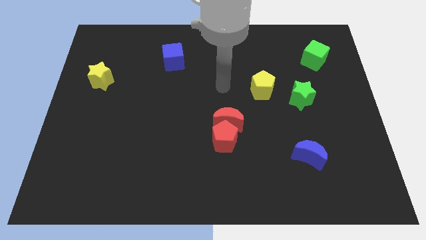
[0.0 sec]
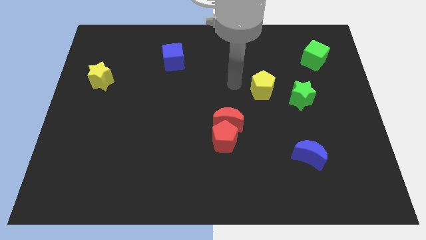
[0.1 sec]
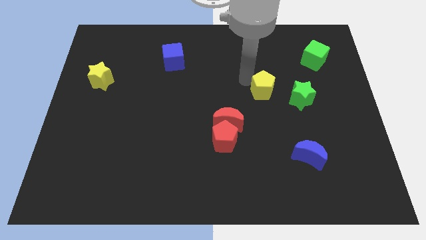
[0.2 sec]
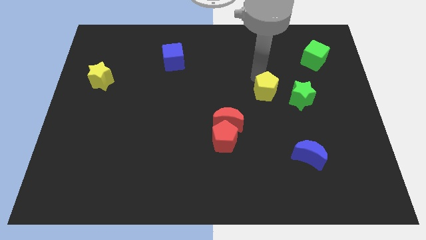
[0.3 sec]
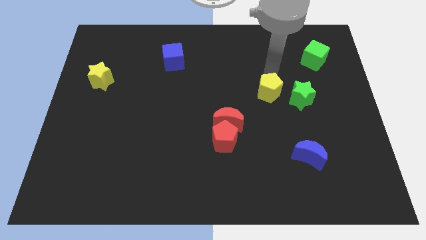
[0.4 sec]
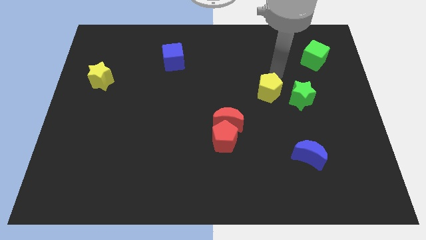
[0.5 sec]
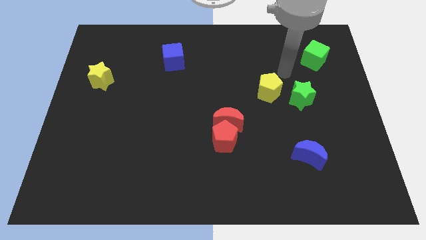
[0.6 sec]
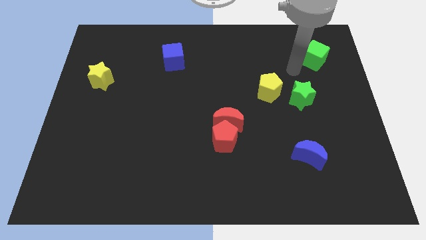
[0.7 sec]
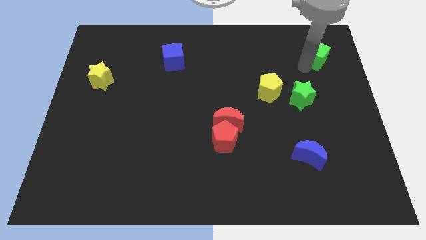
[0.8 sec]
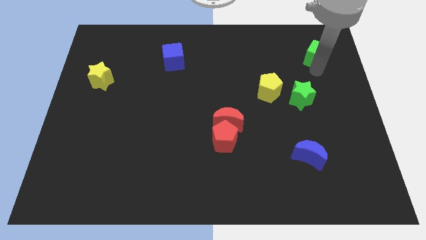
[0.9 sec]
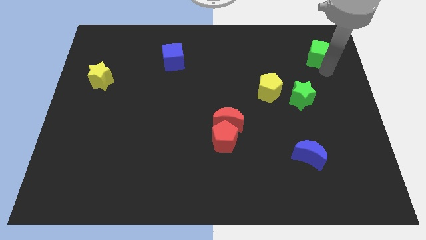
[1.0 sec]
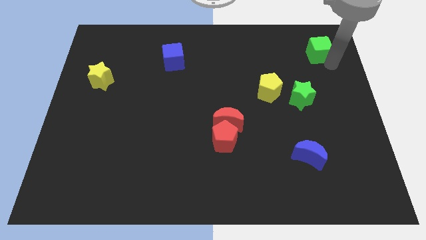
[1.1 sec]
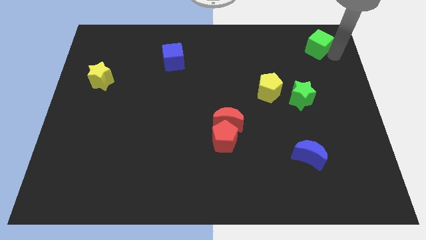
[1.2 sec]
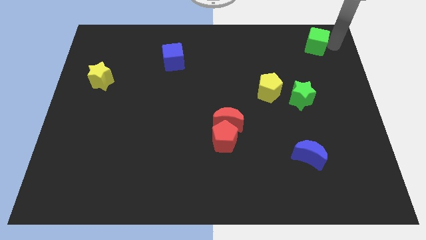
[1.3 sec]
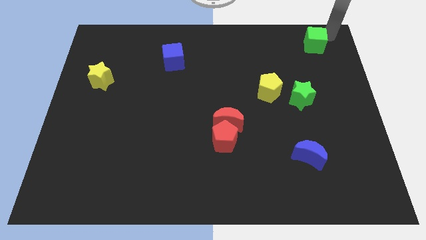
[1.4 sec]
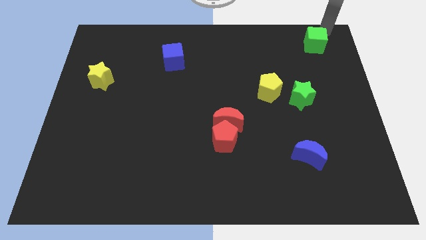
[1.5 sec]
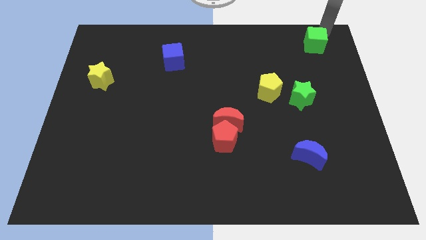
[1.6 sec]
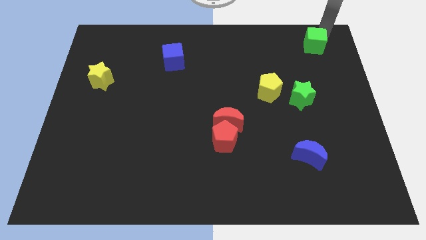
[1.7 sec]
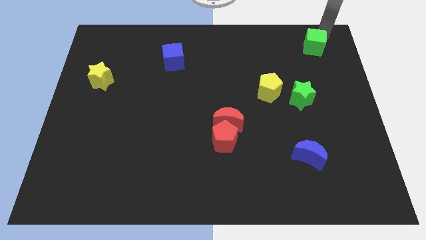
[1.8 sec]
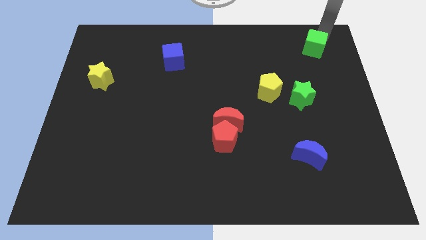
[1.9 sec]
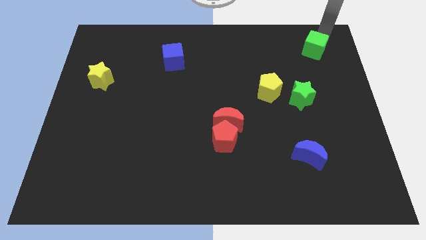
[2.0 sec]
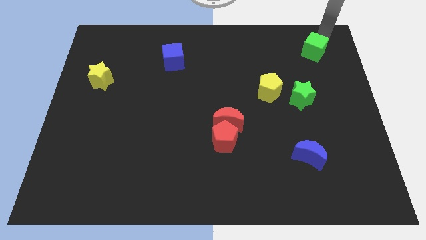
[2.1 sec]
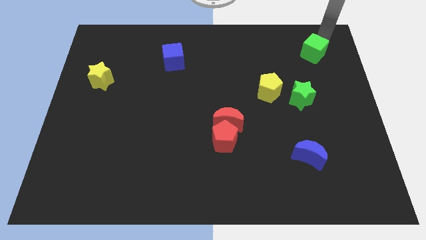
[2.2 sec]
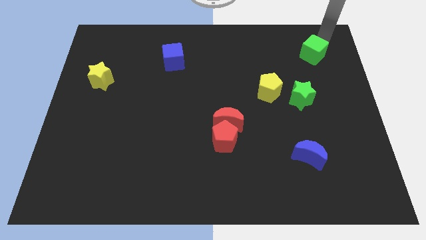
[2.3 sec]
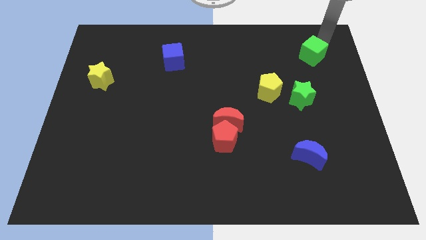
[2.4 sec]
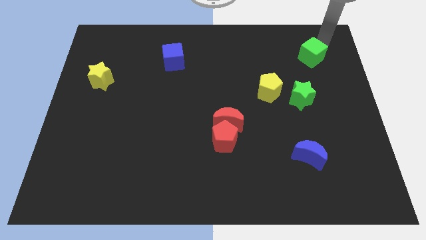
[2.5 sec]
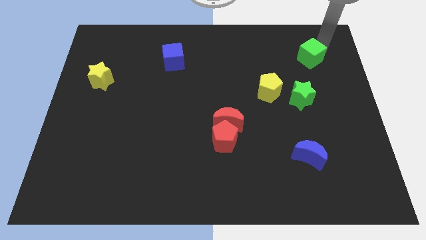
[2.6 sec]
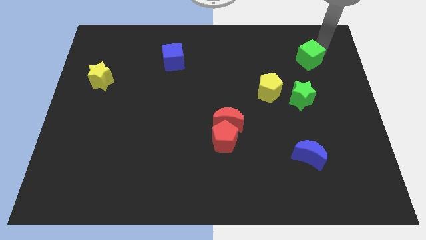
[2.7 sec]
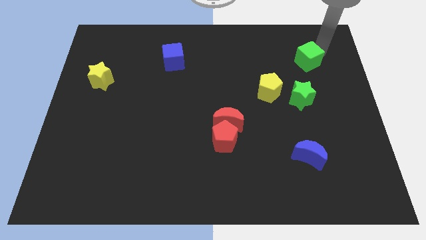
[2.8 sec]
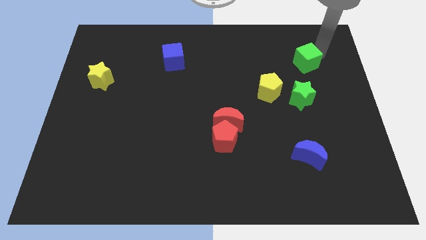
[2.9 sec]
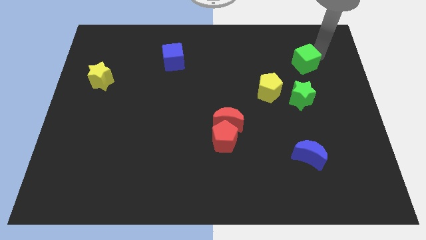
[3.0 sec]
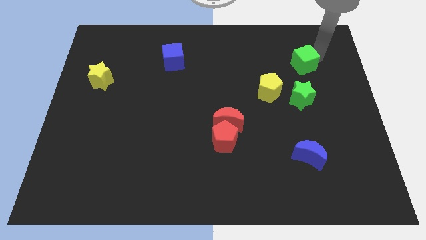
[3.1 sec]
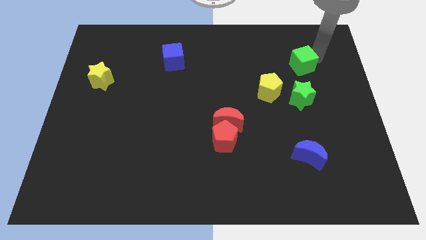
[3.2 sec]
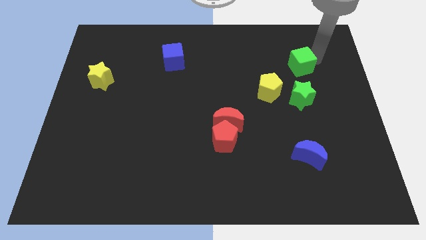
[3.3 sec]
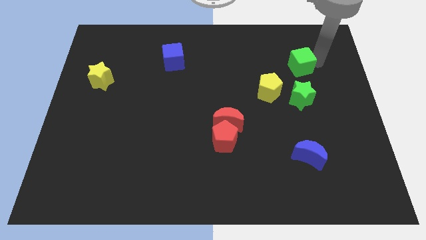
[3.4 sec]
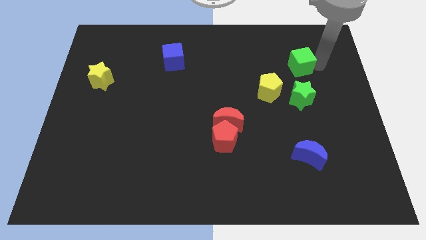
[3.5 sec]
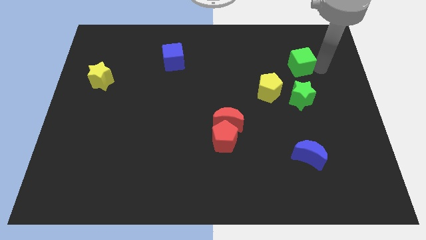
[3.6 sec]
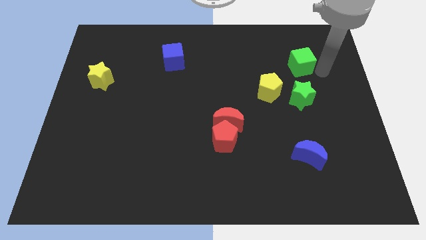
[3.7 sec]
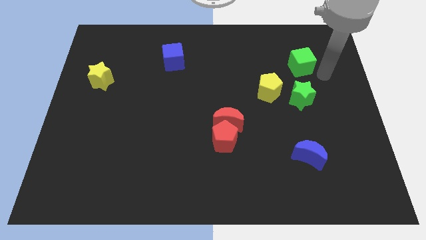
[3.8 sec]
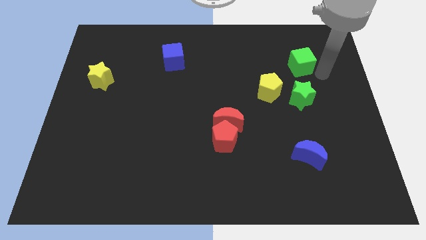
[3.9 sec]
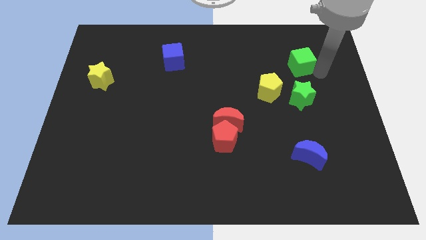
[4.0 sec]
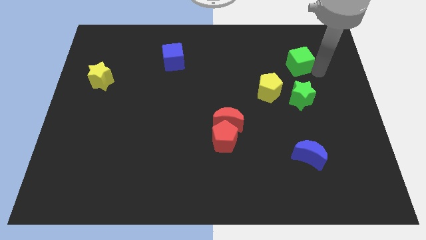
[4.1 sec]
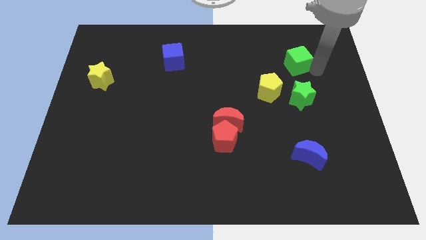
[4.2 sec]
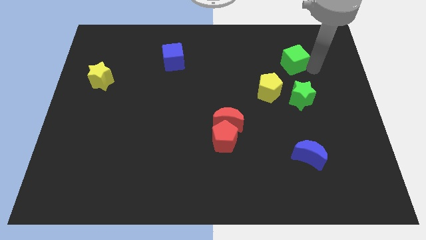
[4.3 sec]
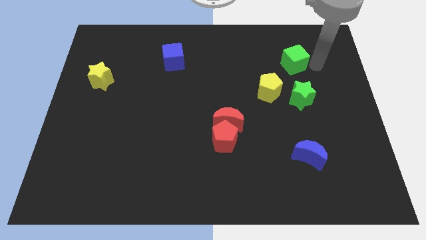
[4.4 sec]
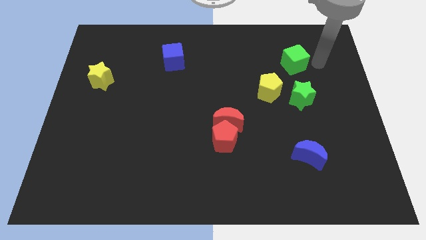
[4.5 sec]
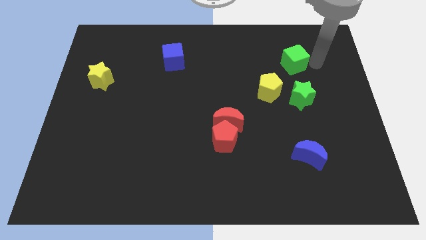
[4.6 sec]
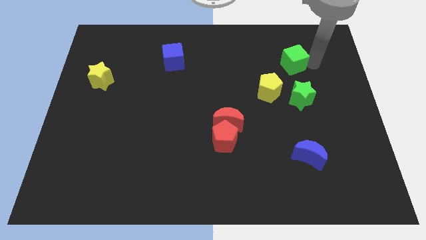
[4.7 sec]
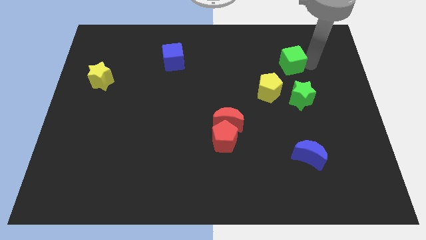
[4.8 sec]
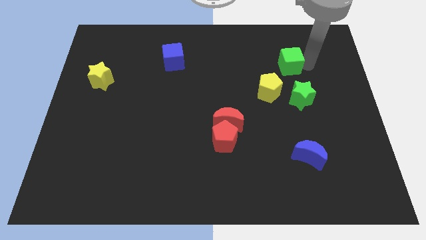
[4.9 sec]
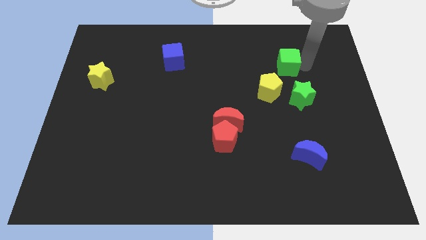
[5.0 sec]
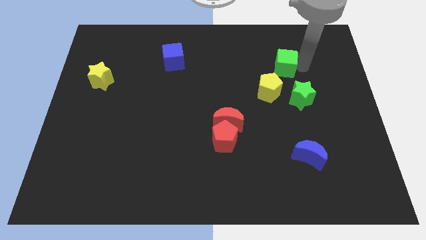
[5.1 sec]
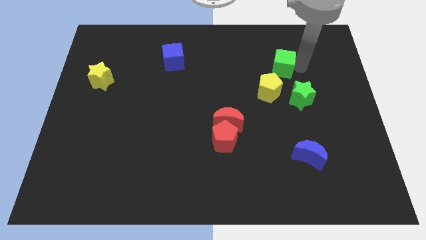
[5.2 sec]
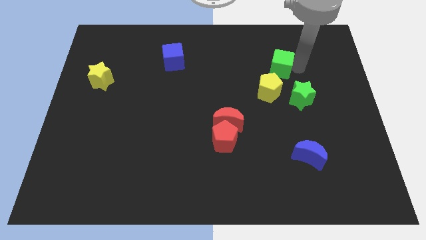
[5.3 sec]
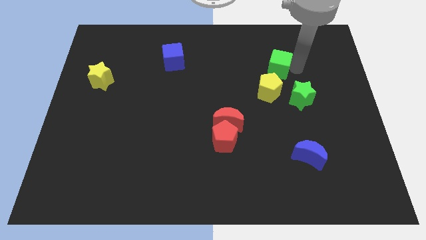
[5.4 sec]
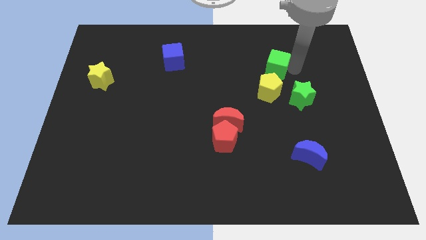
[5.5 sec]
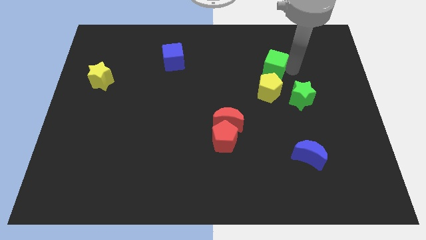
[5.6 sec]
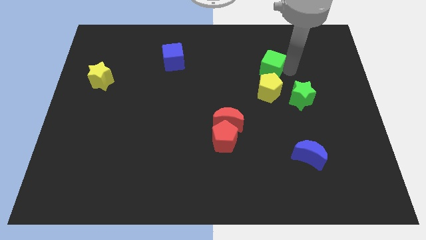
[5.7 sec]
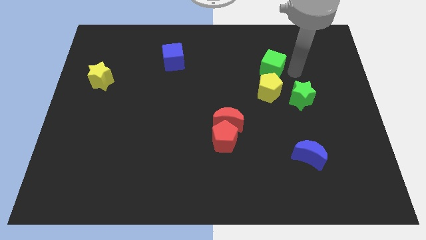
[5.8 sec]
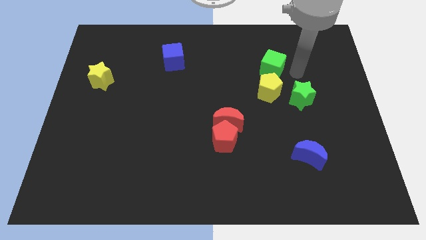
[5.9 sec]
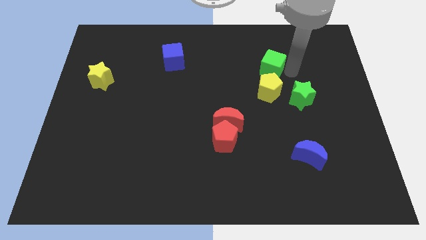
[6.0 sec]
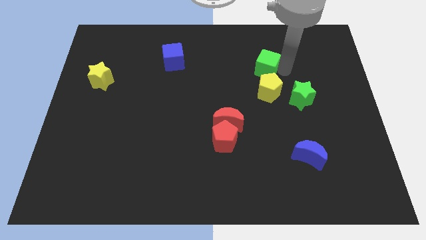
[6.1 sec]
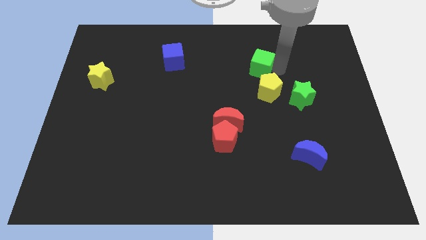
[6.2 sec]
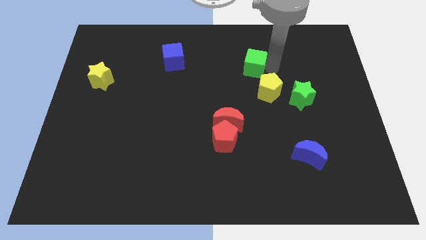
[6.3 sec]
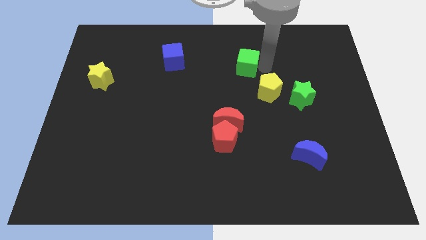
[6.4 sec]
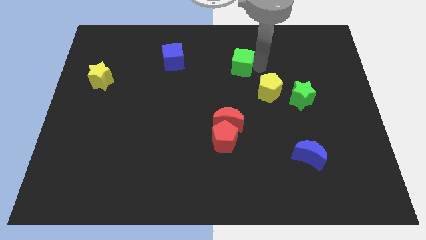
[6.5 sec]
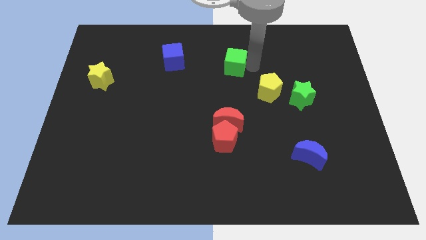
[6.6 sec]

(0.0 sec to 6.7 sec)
push the green cube to the left

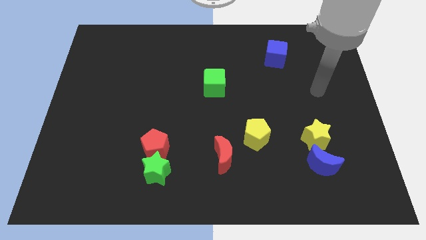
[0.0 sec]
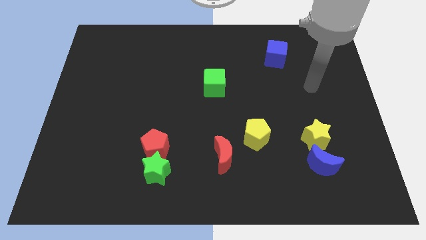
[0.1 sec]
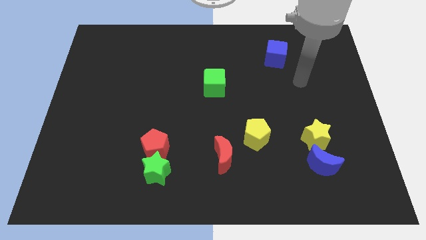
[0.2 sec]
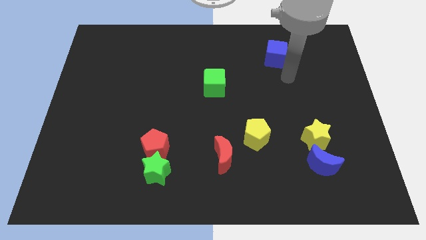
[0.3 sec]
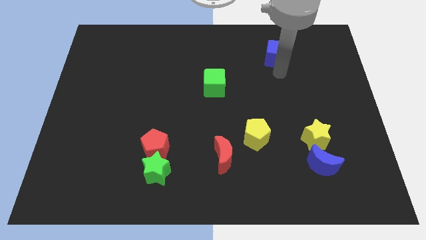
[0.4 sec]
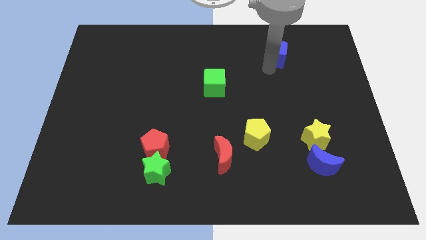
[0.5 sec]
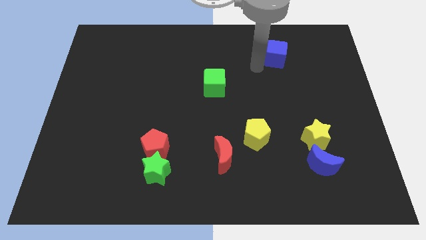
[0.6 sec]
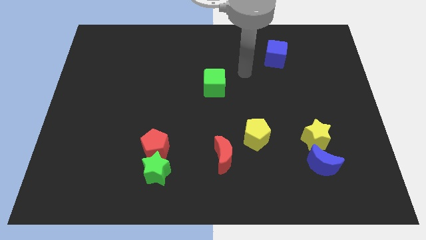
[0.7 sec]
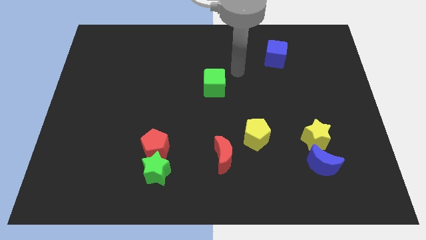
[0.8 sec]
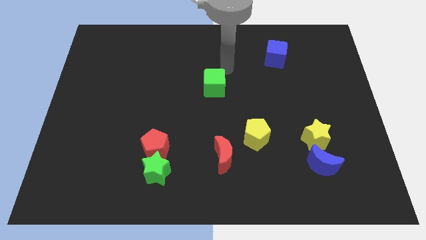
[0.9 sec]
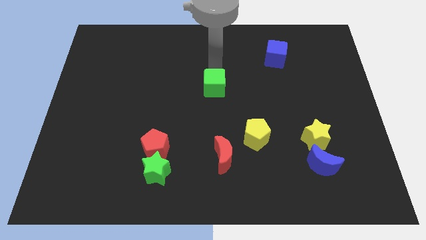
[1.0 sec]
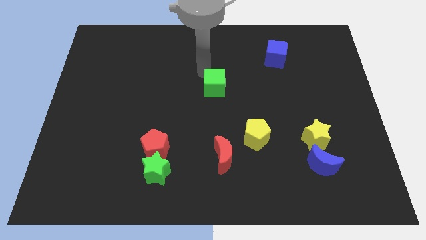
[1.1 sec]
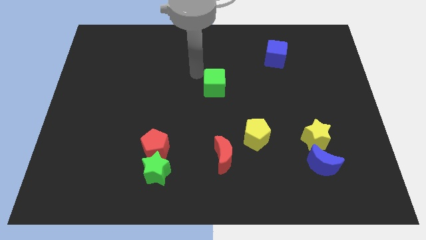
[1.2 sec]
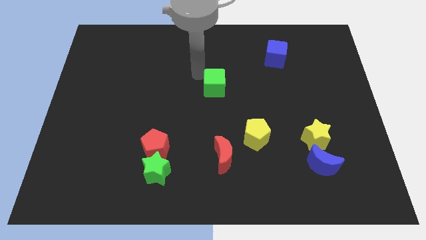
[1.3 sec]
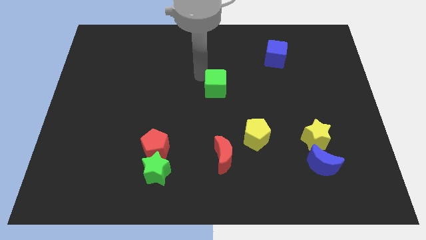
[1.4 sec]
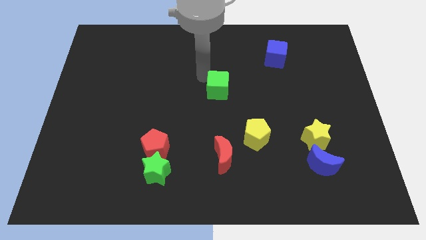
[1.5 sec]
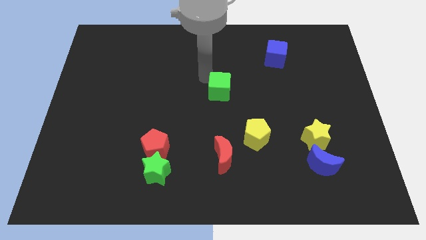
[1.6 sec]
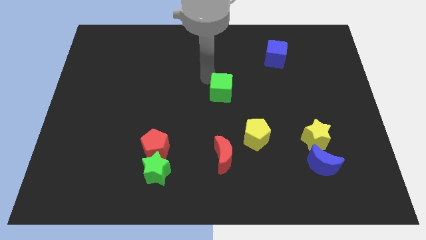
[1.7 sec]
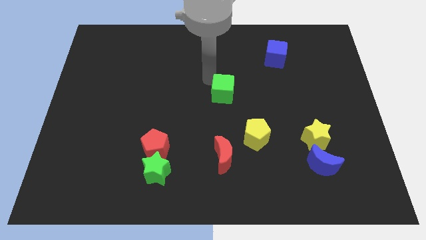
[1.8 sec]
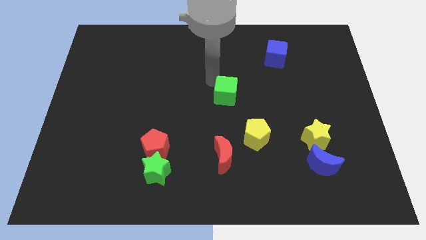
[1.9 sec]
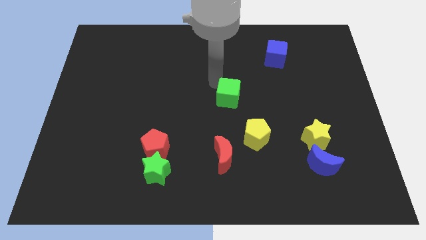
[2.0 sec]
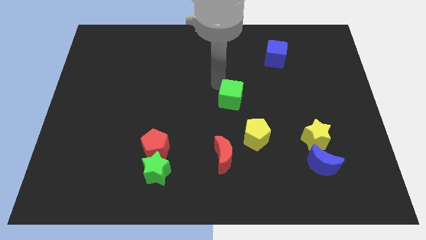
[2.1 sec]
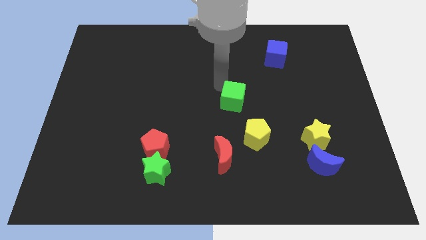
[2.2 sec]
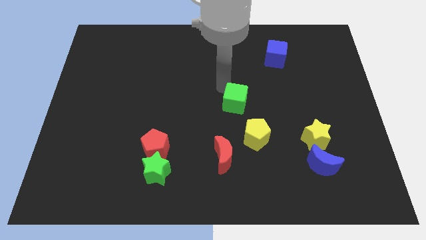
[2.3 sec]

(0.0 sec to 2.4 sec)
slightly slide the green cube downwards and right
